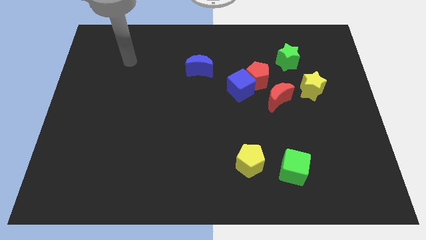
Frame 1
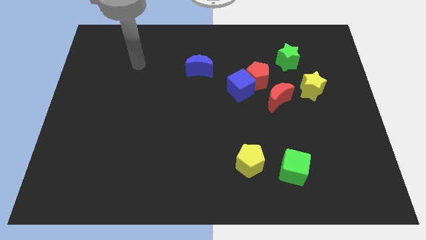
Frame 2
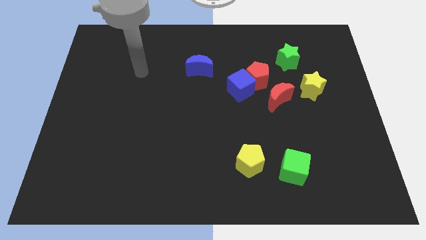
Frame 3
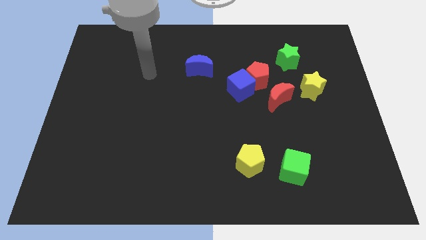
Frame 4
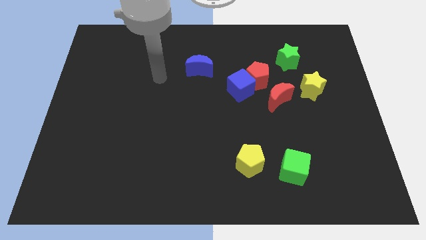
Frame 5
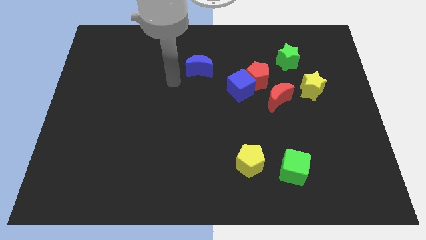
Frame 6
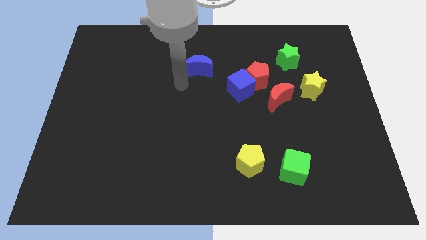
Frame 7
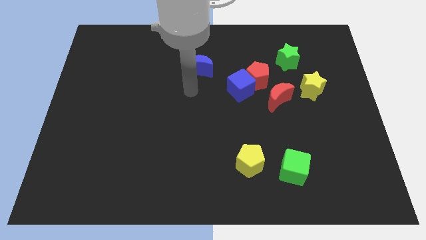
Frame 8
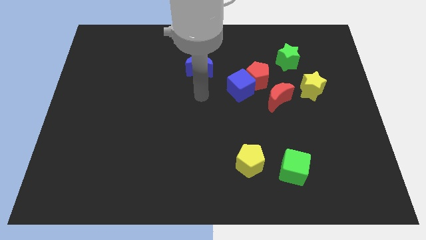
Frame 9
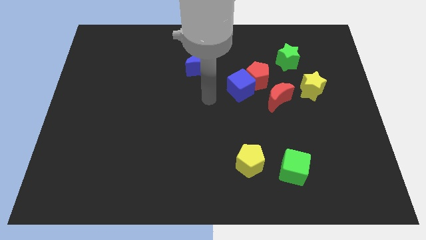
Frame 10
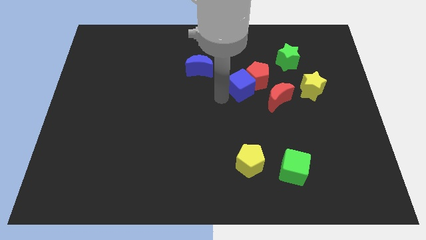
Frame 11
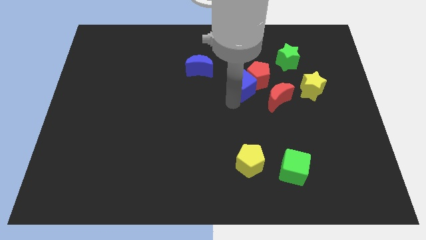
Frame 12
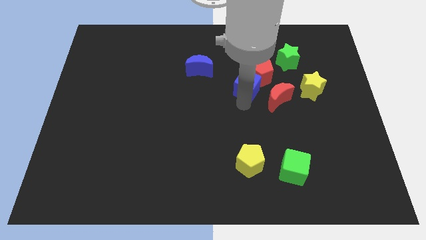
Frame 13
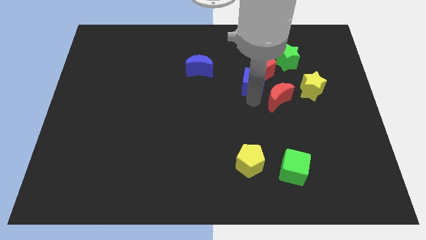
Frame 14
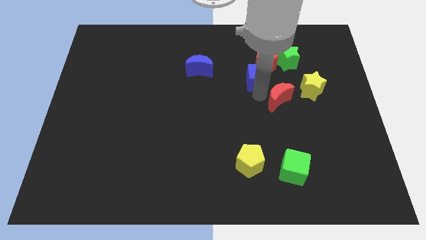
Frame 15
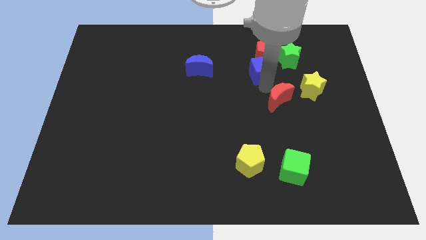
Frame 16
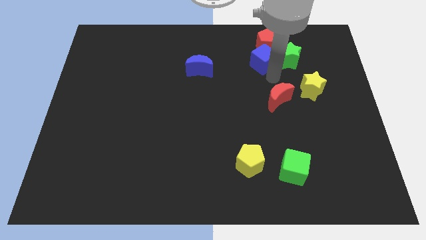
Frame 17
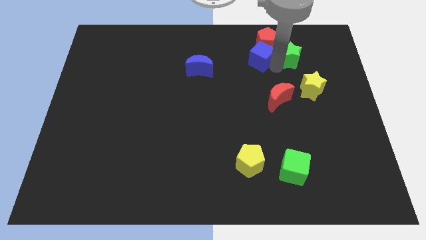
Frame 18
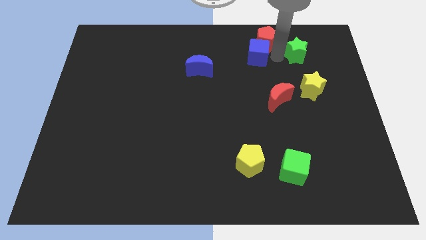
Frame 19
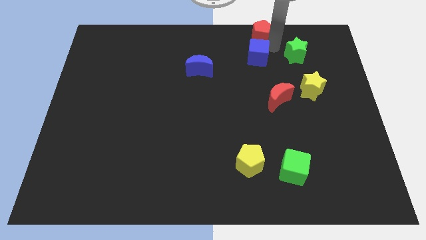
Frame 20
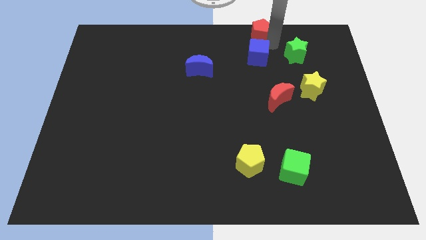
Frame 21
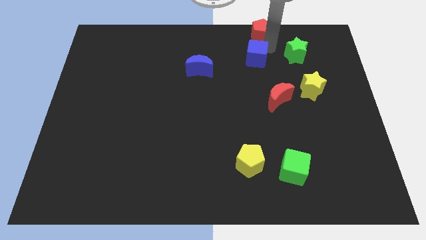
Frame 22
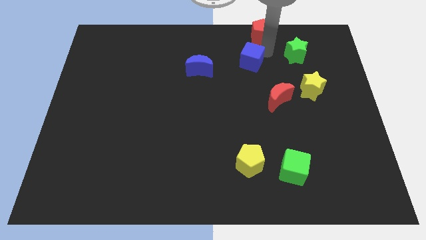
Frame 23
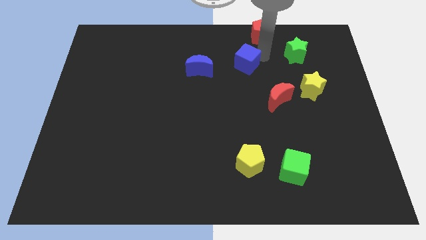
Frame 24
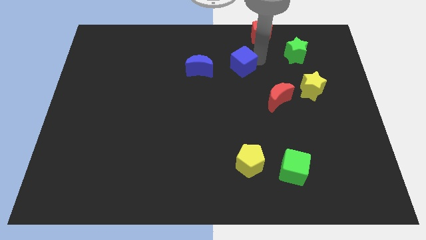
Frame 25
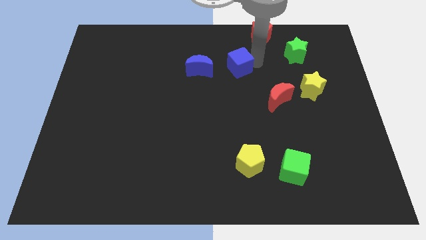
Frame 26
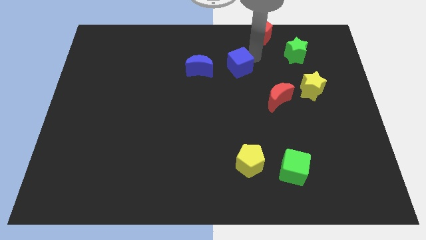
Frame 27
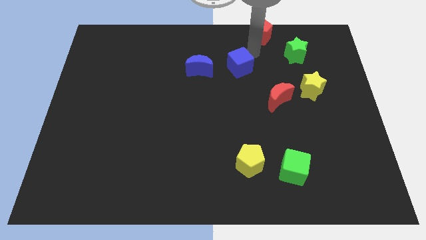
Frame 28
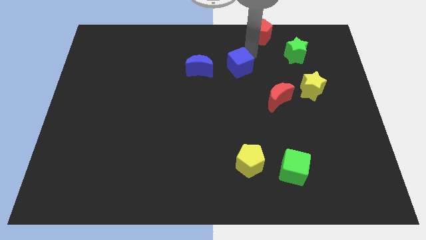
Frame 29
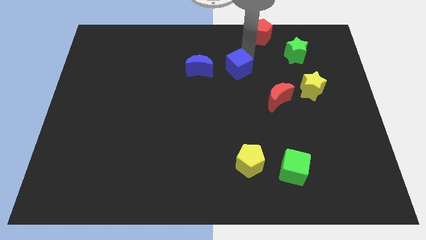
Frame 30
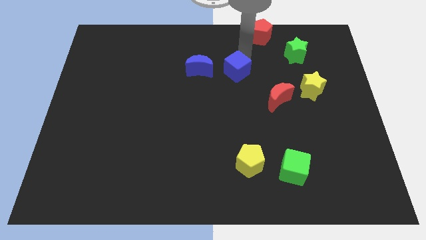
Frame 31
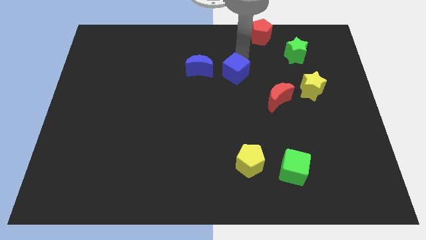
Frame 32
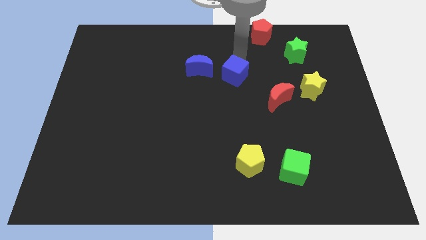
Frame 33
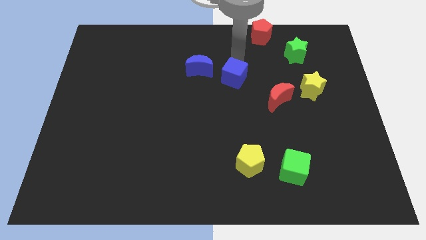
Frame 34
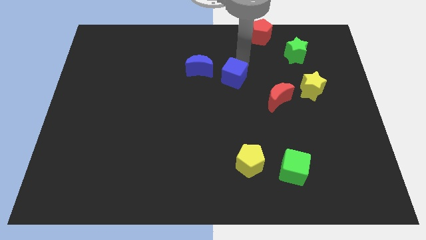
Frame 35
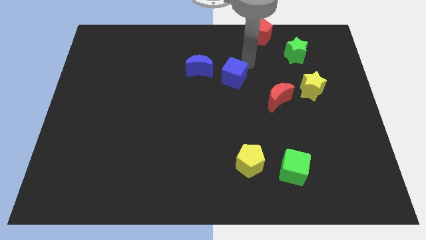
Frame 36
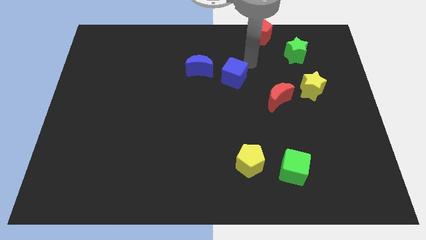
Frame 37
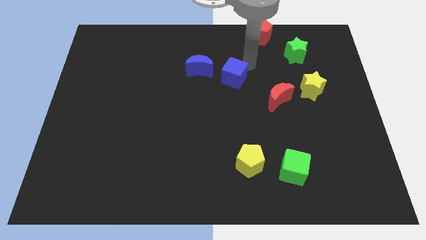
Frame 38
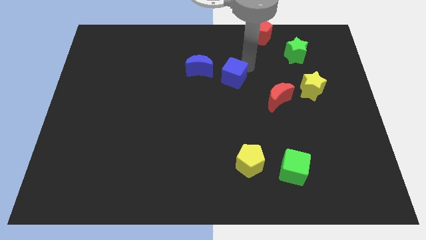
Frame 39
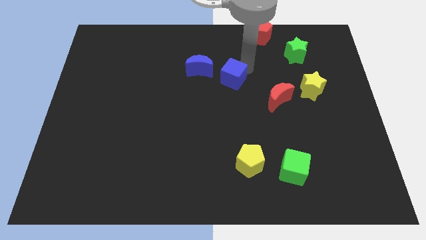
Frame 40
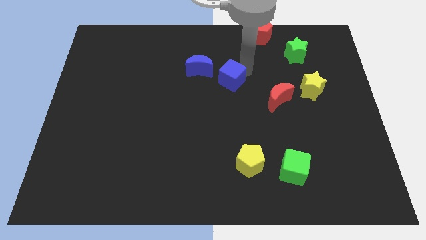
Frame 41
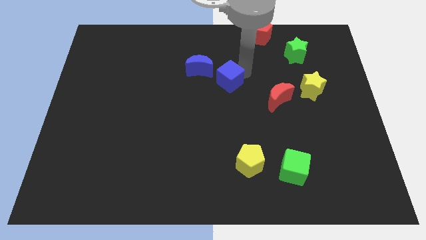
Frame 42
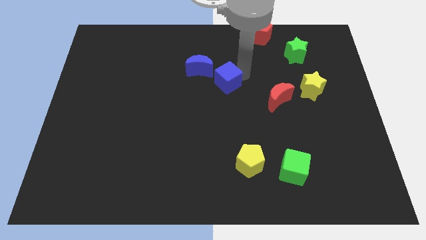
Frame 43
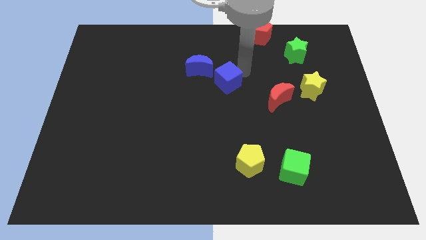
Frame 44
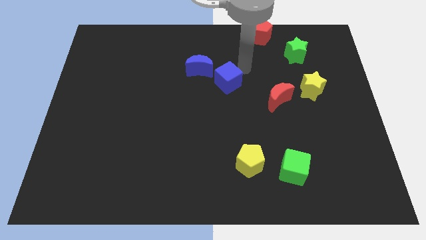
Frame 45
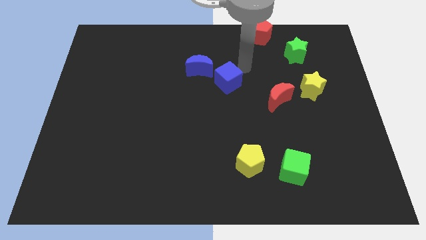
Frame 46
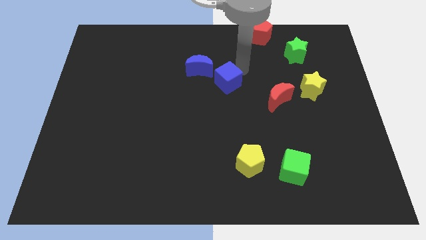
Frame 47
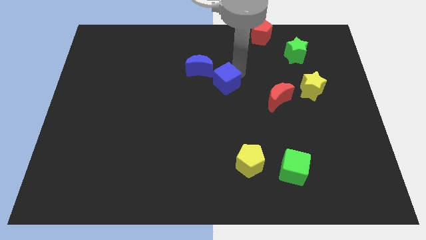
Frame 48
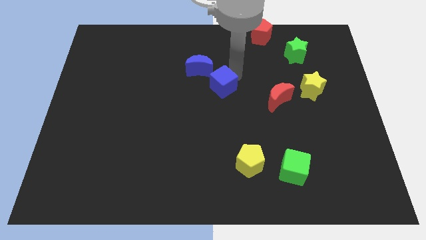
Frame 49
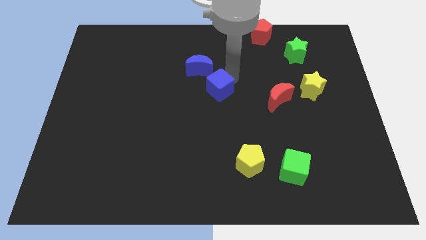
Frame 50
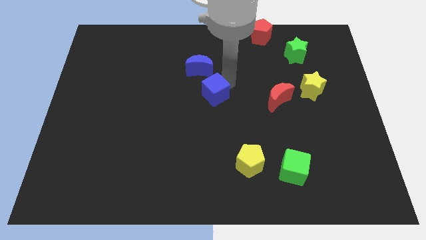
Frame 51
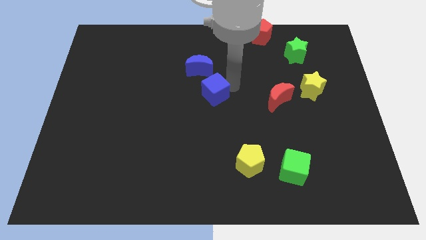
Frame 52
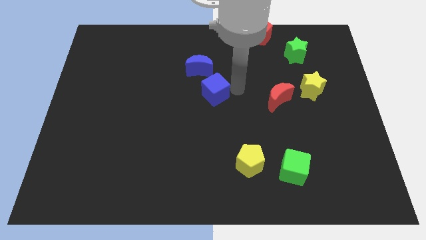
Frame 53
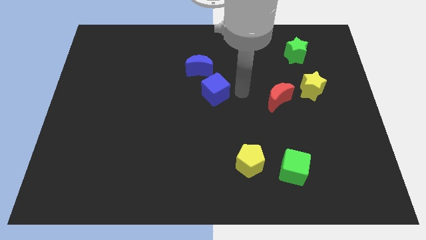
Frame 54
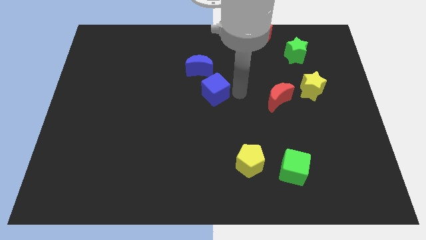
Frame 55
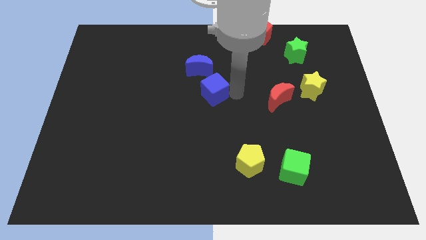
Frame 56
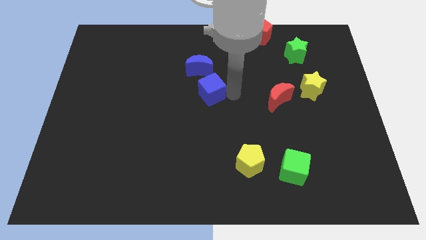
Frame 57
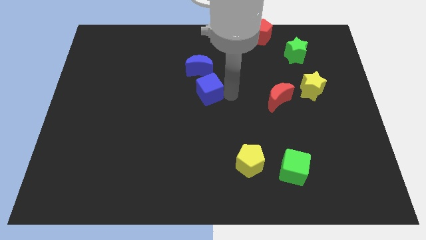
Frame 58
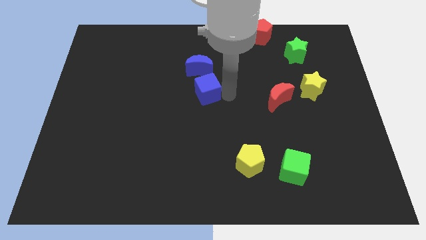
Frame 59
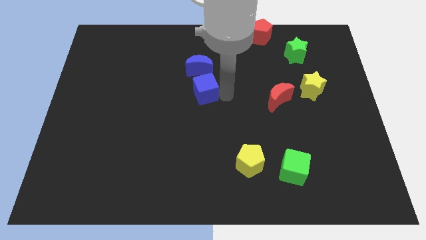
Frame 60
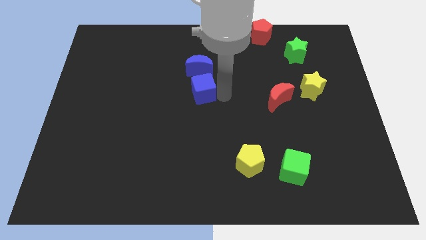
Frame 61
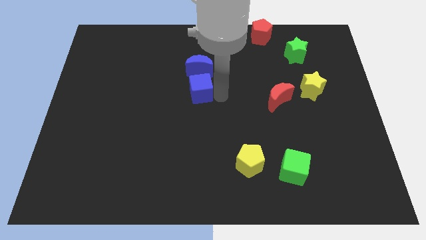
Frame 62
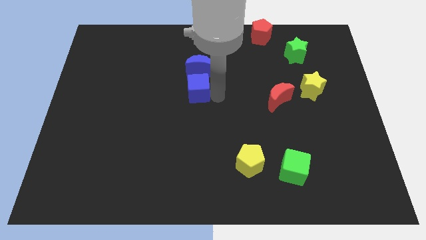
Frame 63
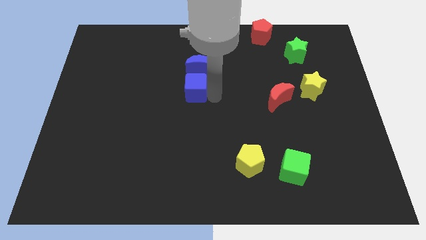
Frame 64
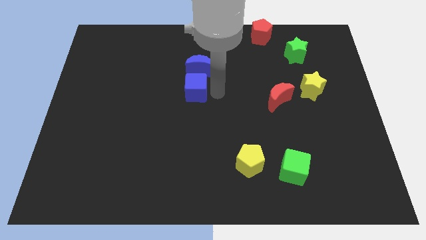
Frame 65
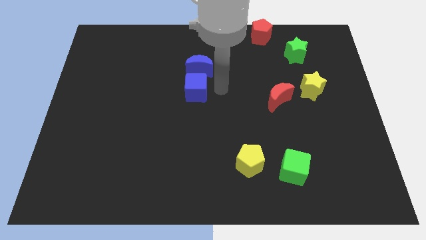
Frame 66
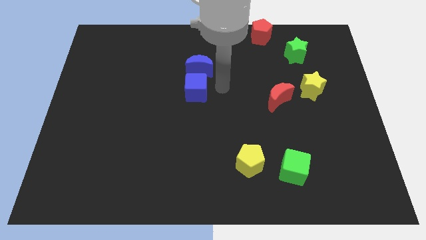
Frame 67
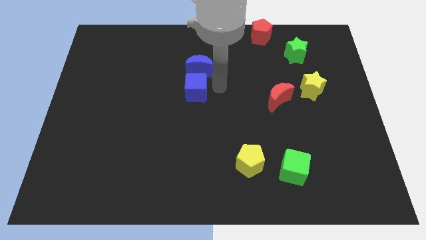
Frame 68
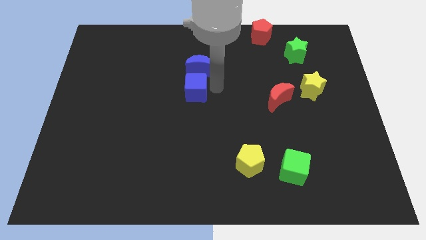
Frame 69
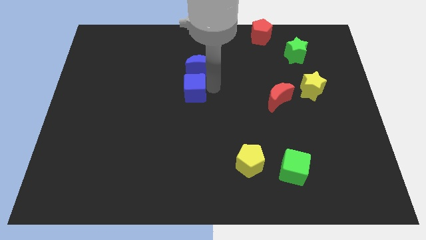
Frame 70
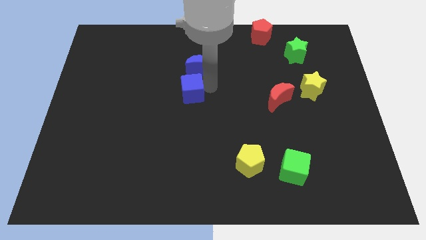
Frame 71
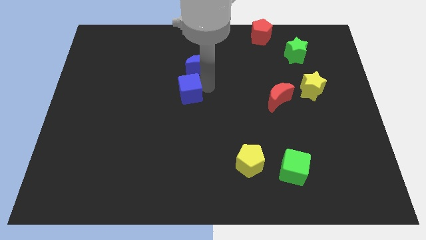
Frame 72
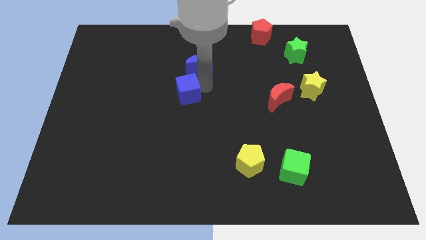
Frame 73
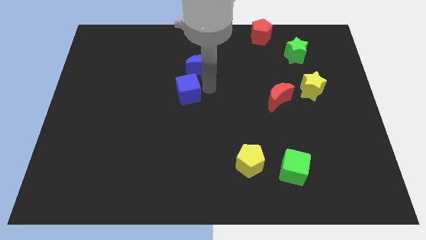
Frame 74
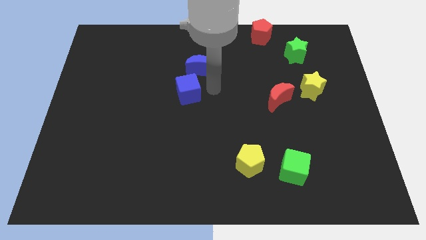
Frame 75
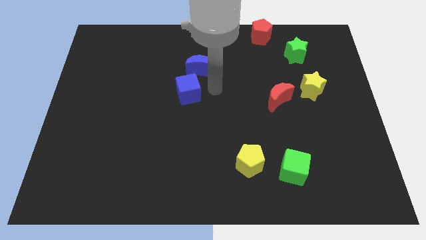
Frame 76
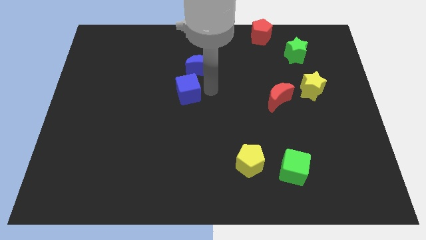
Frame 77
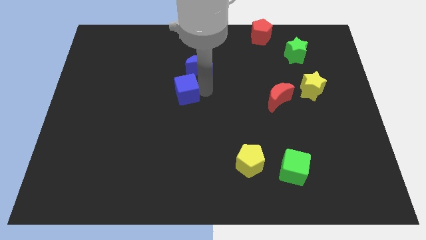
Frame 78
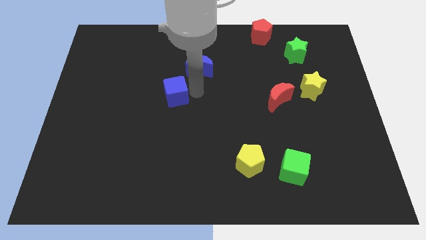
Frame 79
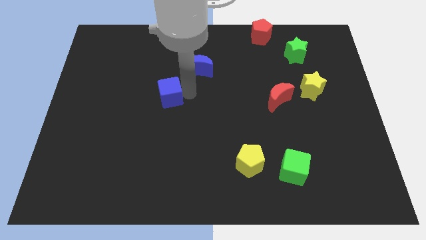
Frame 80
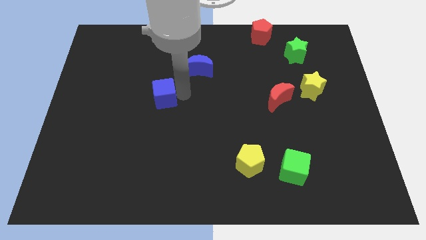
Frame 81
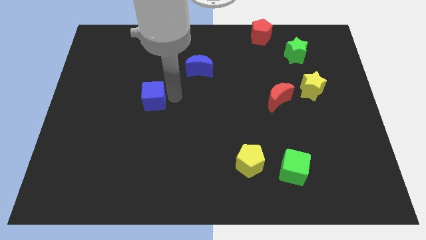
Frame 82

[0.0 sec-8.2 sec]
push the blue cube to the left
